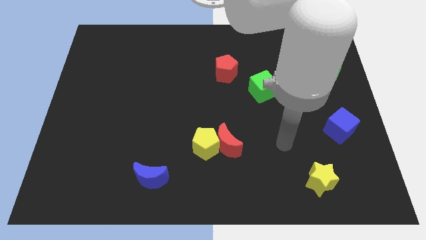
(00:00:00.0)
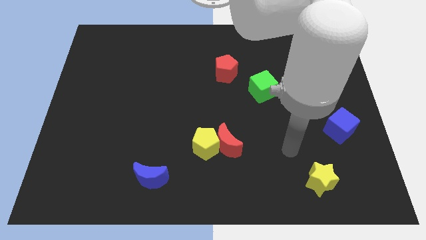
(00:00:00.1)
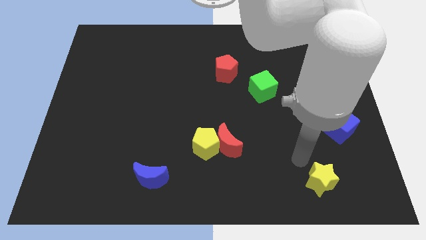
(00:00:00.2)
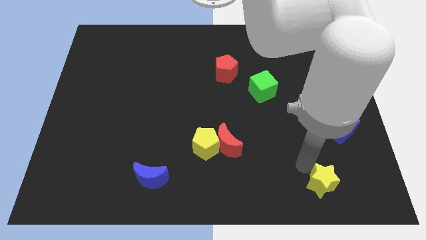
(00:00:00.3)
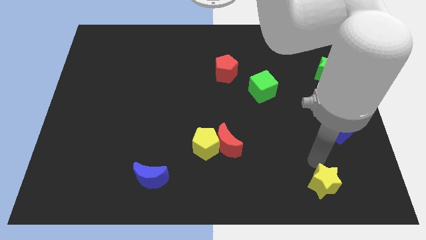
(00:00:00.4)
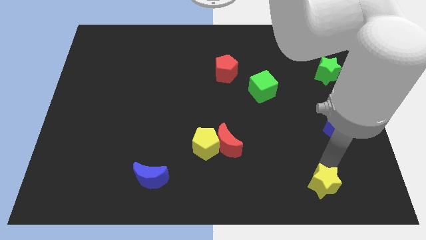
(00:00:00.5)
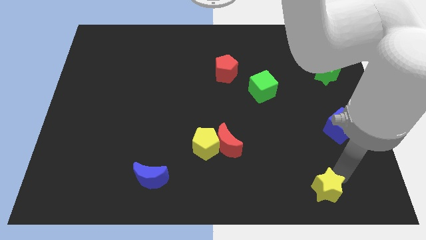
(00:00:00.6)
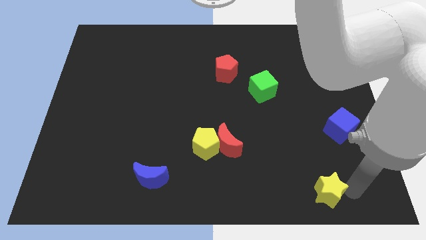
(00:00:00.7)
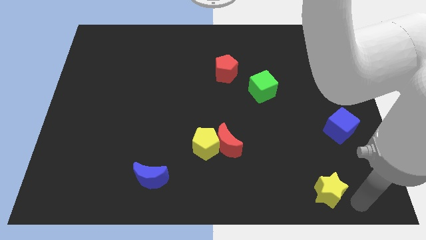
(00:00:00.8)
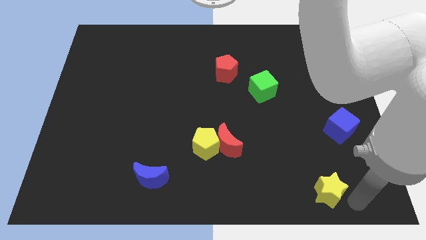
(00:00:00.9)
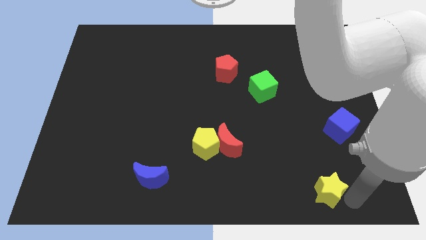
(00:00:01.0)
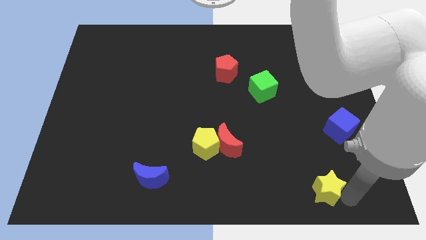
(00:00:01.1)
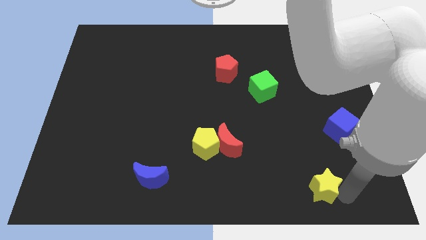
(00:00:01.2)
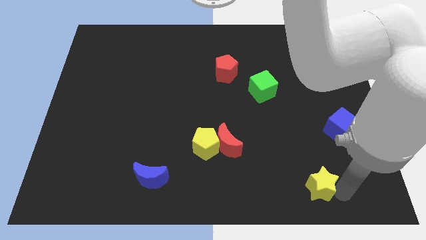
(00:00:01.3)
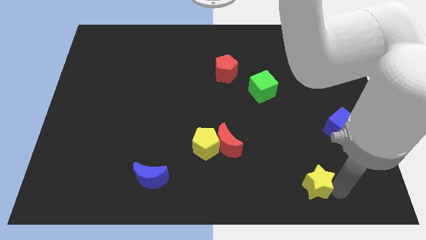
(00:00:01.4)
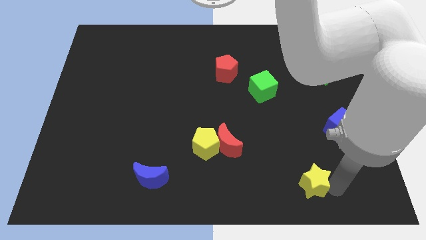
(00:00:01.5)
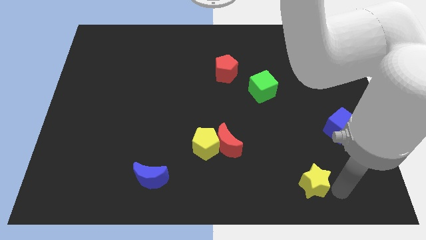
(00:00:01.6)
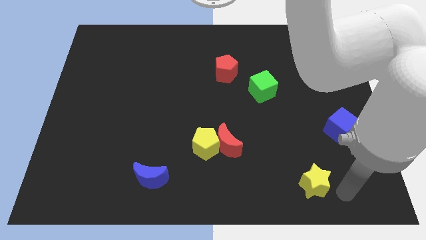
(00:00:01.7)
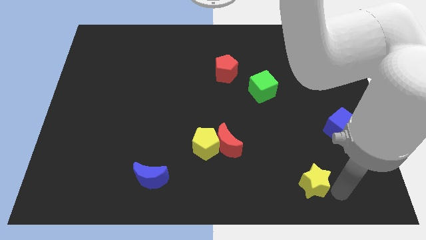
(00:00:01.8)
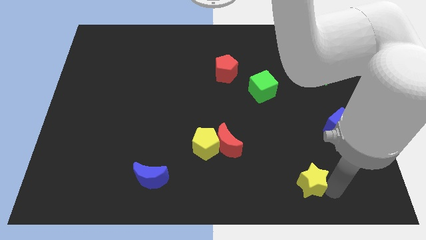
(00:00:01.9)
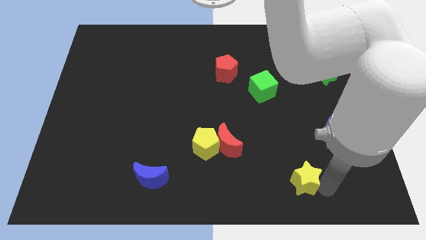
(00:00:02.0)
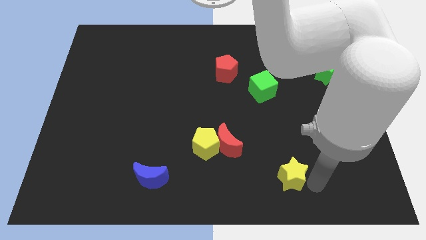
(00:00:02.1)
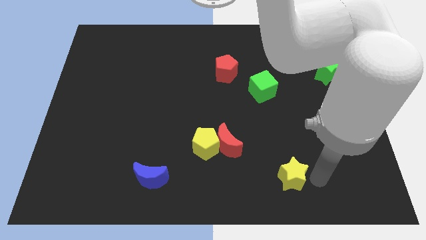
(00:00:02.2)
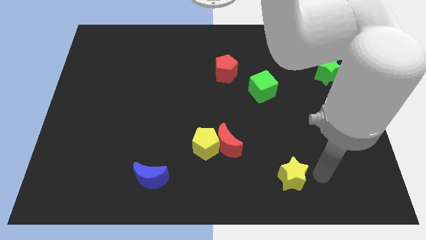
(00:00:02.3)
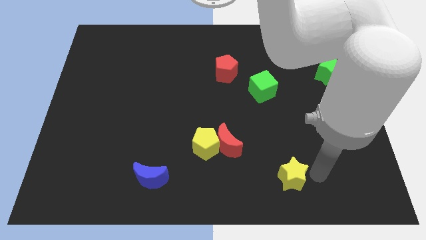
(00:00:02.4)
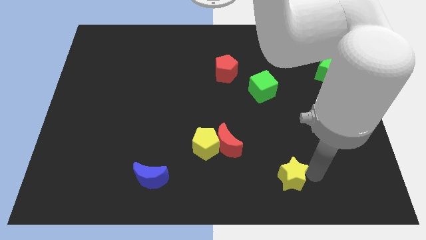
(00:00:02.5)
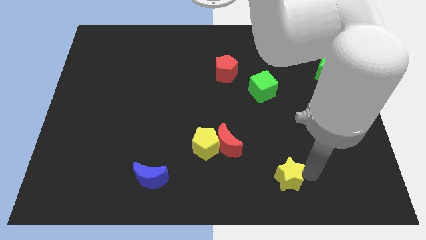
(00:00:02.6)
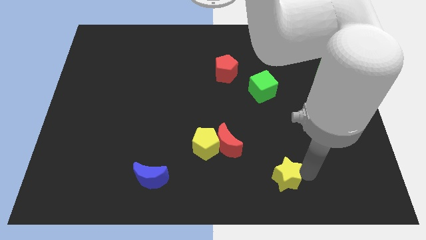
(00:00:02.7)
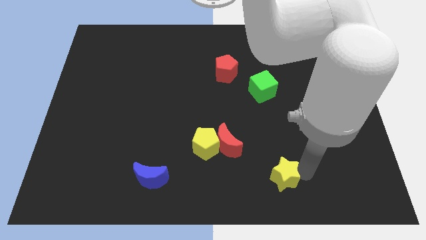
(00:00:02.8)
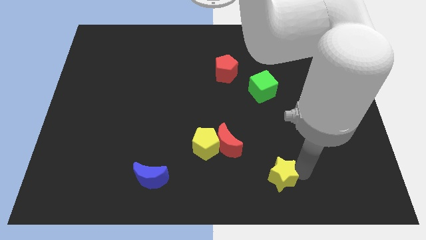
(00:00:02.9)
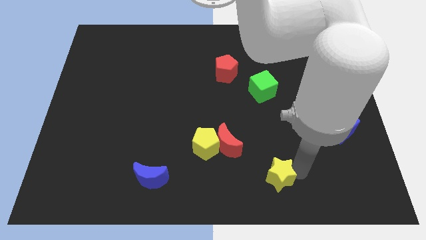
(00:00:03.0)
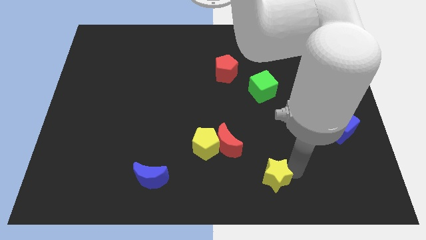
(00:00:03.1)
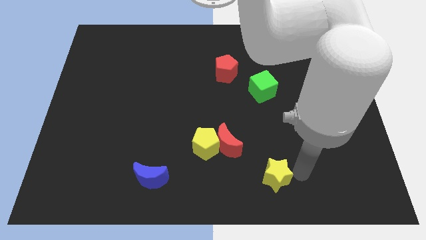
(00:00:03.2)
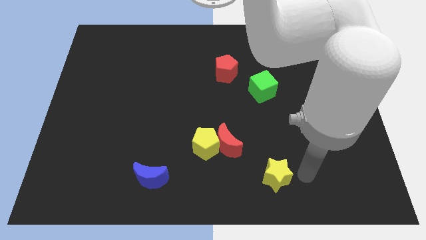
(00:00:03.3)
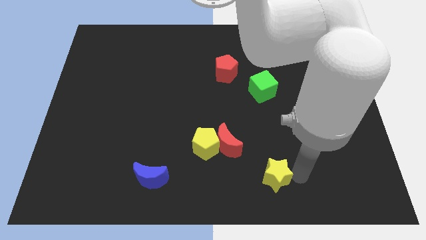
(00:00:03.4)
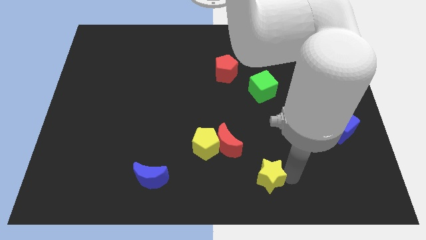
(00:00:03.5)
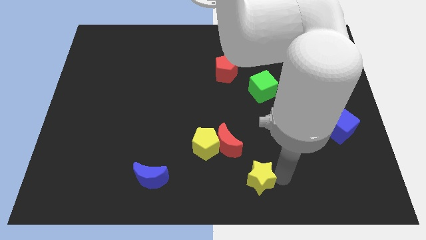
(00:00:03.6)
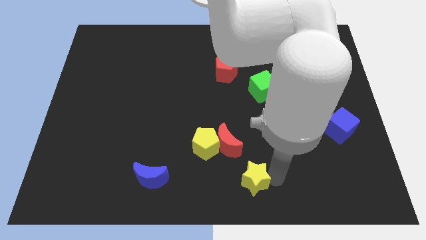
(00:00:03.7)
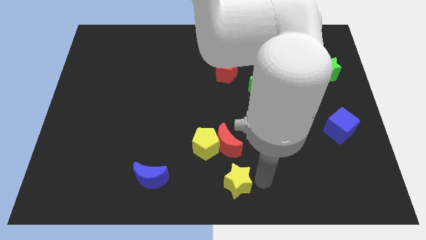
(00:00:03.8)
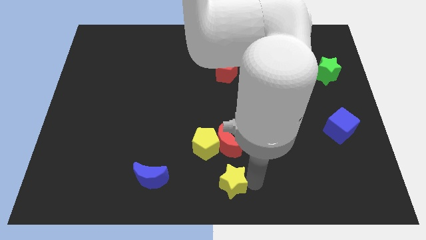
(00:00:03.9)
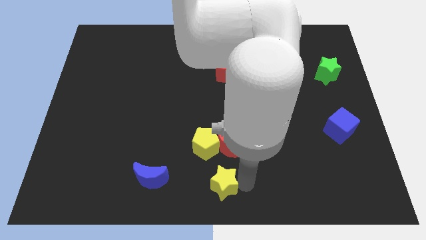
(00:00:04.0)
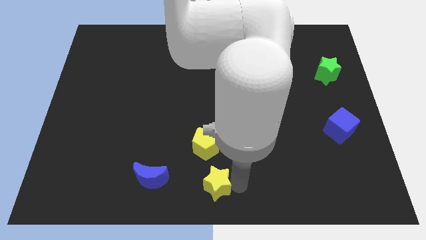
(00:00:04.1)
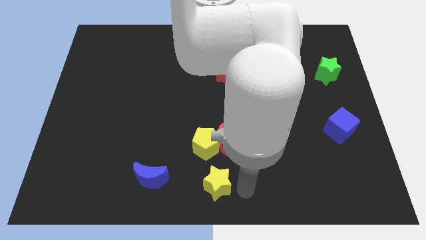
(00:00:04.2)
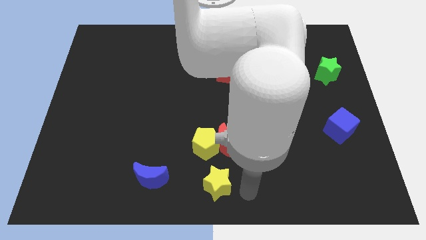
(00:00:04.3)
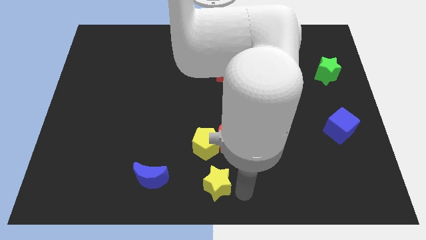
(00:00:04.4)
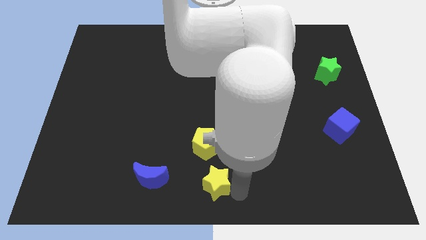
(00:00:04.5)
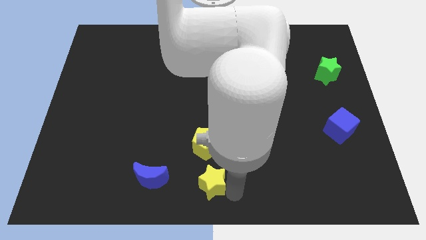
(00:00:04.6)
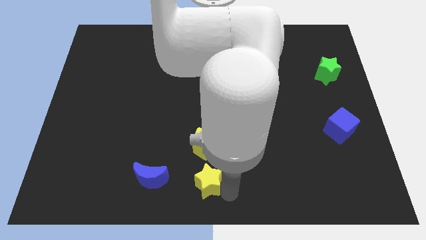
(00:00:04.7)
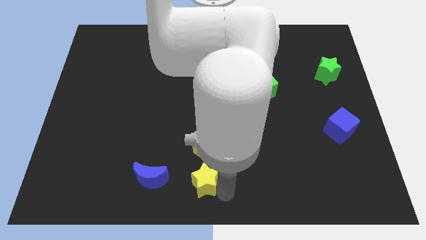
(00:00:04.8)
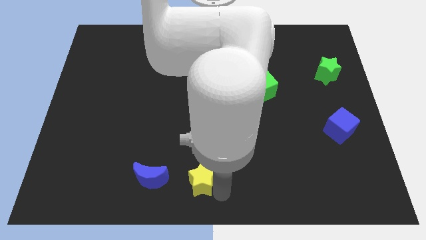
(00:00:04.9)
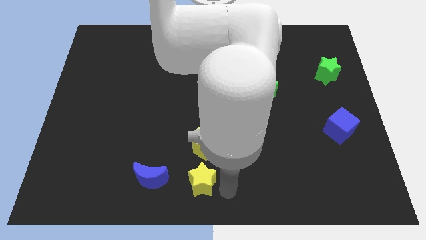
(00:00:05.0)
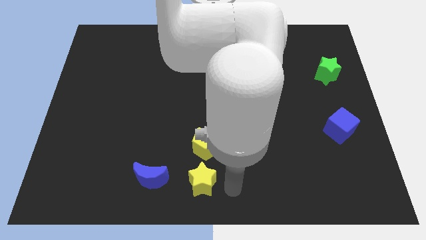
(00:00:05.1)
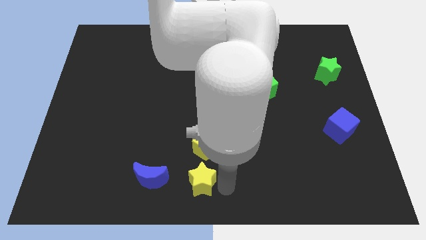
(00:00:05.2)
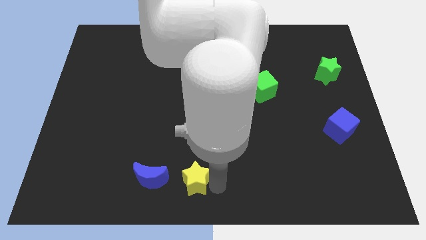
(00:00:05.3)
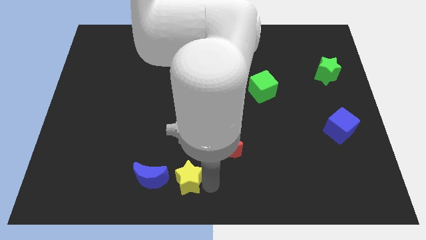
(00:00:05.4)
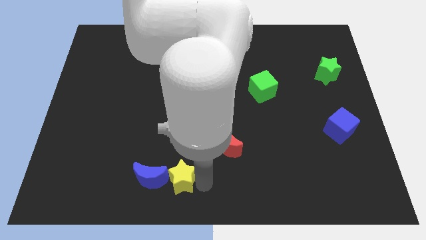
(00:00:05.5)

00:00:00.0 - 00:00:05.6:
slide the yellow star close to the blue moon

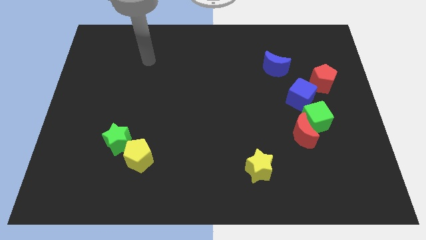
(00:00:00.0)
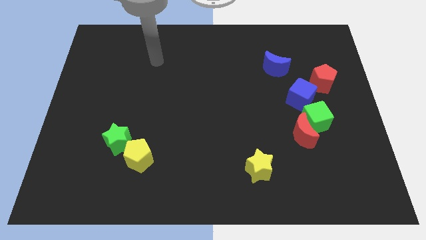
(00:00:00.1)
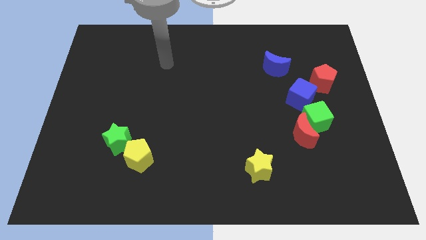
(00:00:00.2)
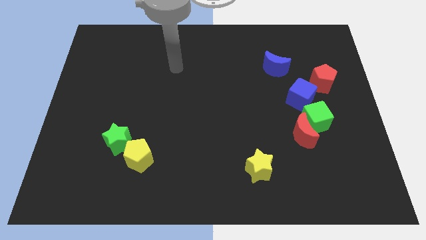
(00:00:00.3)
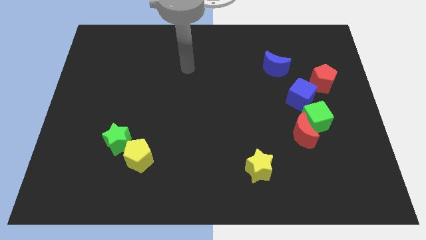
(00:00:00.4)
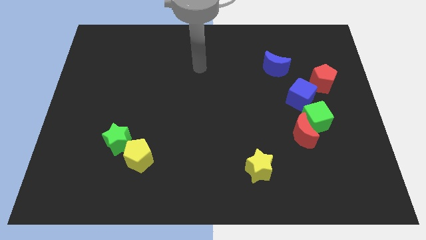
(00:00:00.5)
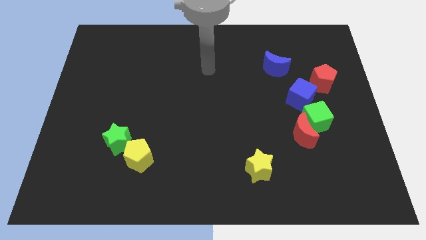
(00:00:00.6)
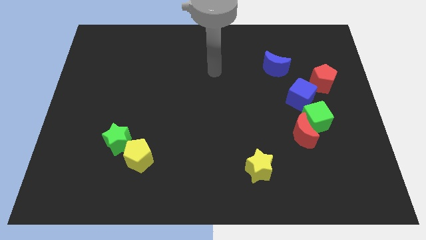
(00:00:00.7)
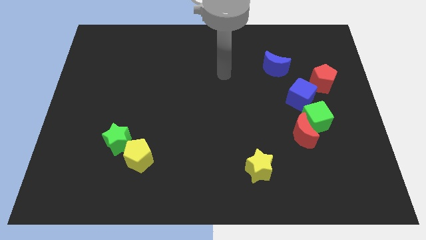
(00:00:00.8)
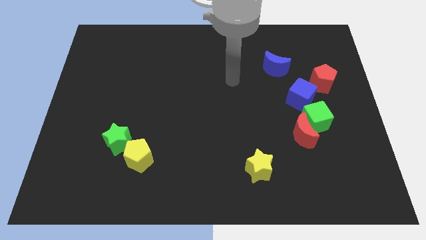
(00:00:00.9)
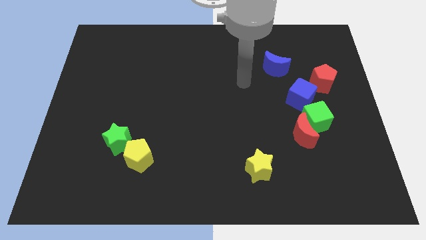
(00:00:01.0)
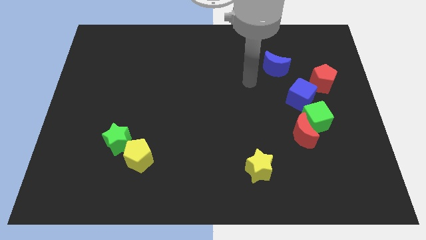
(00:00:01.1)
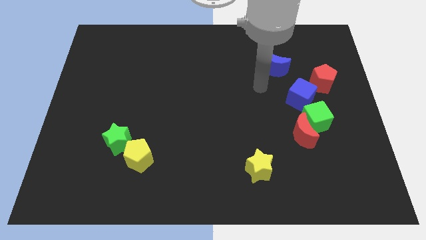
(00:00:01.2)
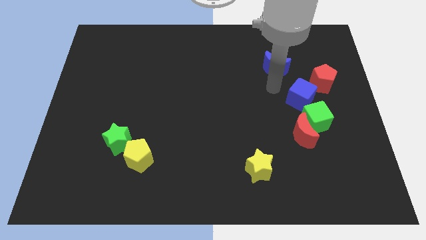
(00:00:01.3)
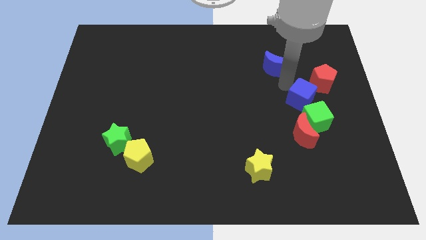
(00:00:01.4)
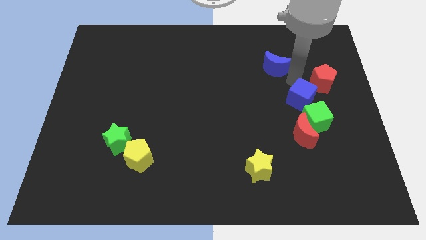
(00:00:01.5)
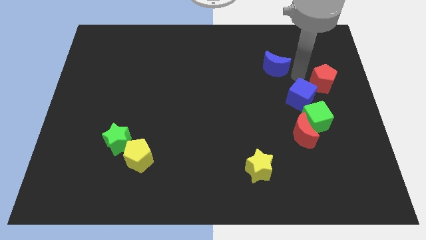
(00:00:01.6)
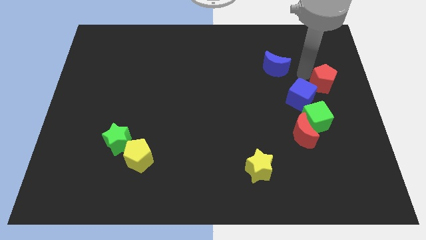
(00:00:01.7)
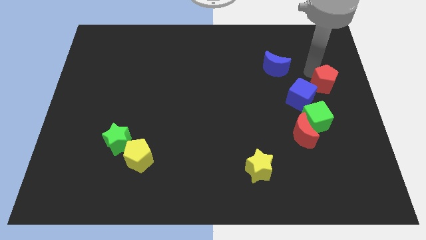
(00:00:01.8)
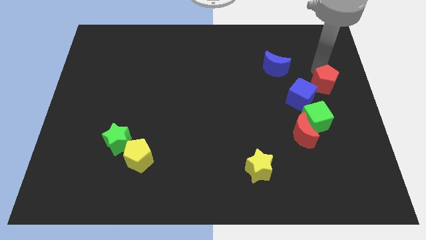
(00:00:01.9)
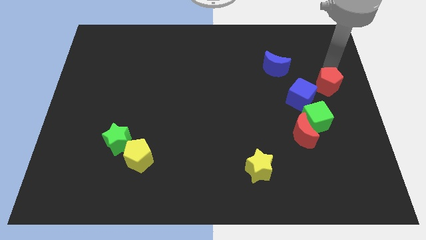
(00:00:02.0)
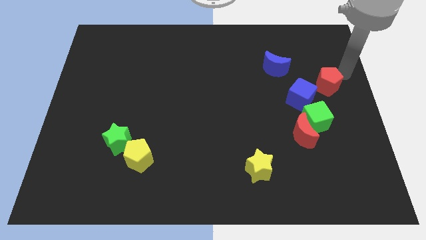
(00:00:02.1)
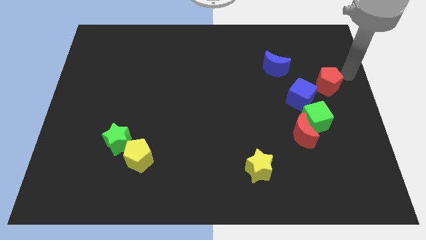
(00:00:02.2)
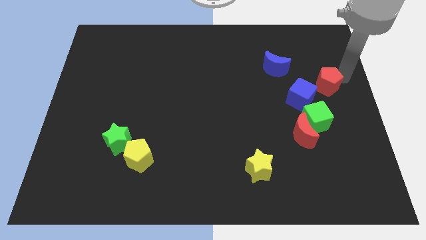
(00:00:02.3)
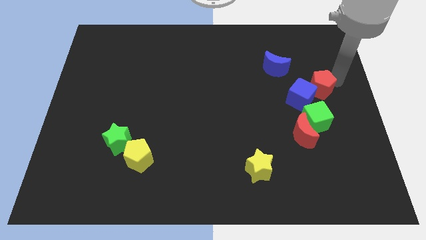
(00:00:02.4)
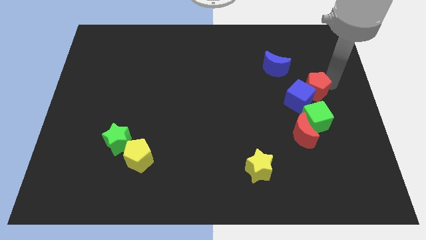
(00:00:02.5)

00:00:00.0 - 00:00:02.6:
move the red pentagon to the blue cube
